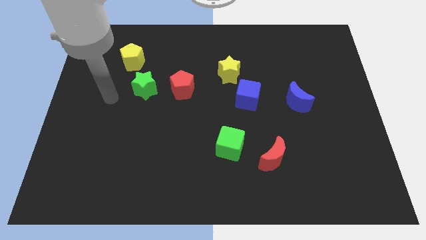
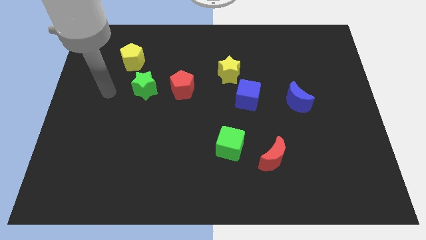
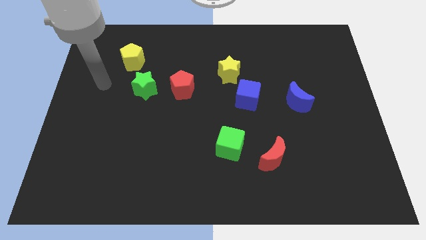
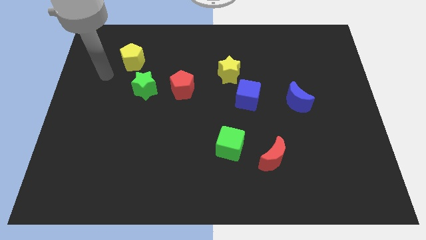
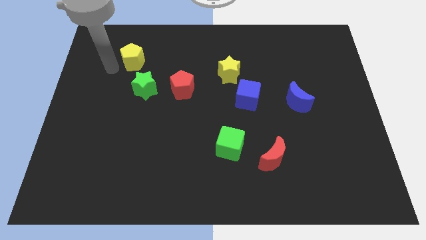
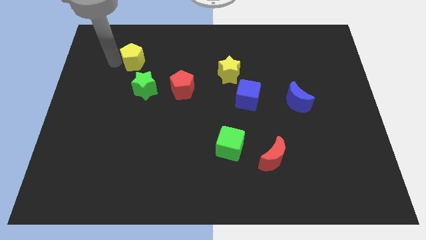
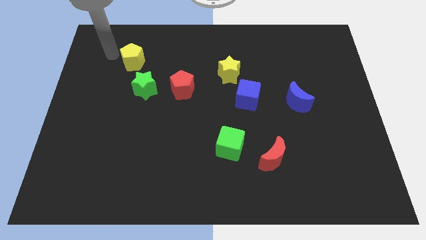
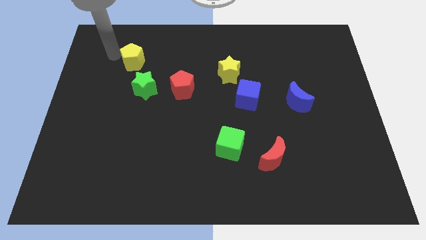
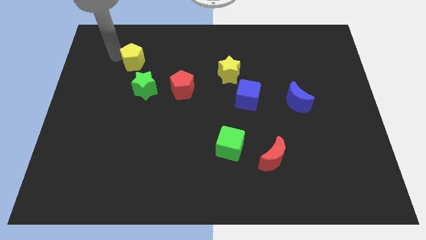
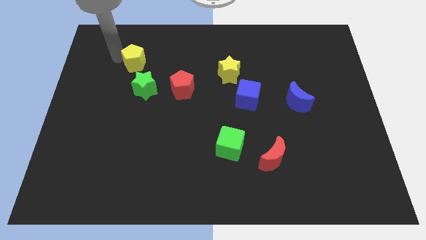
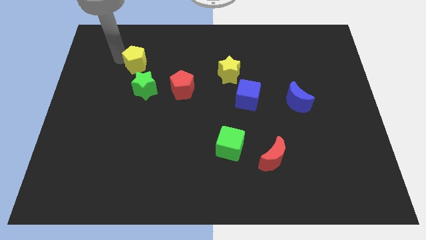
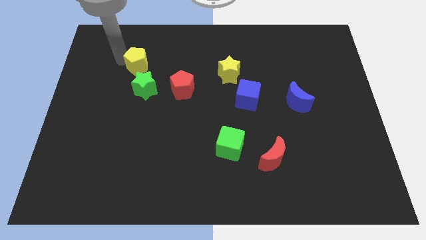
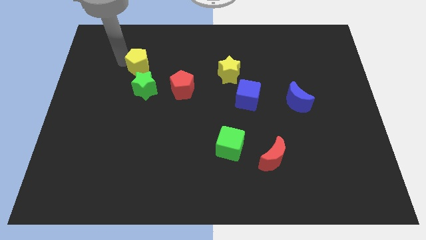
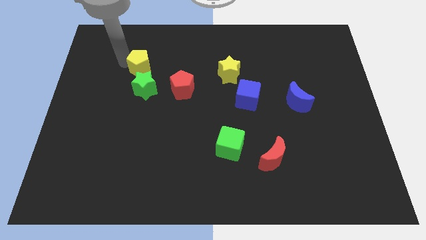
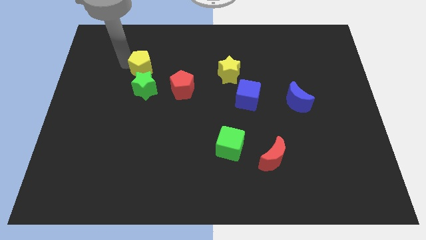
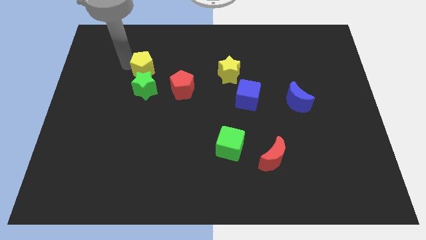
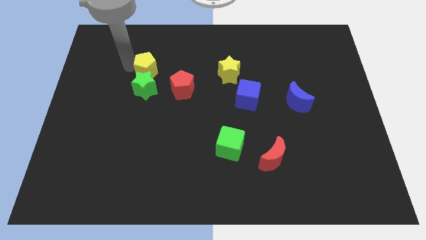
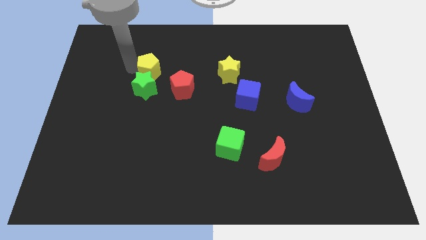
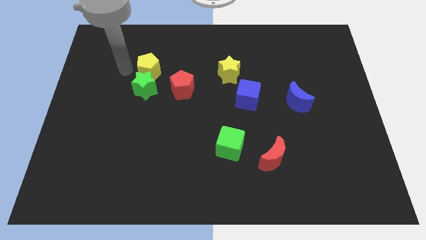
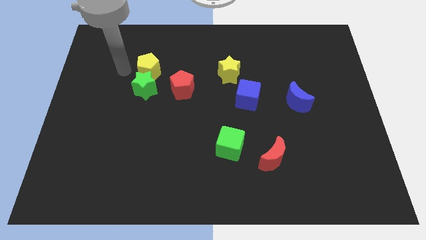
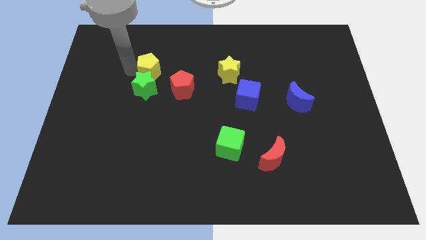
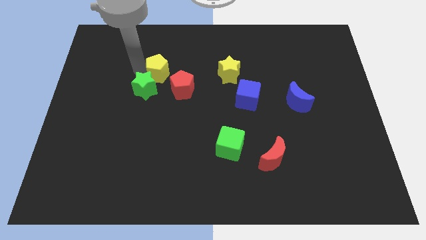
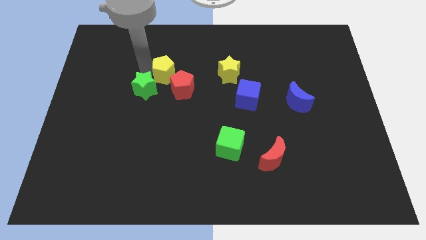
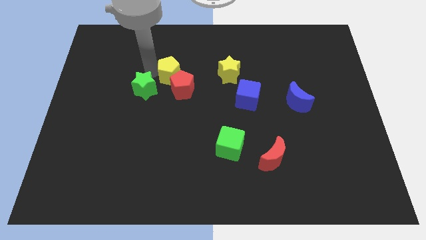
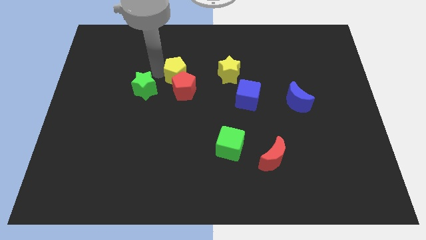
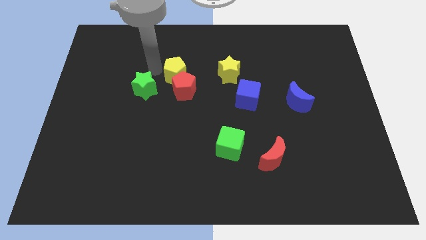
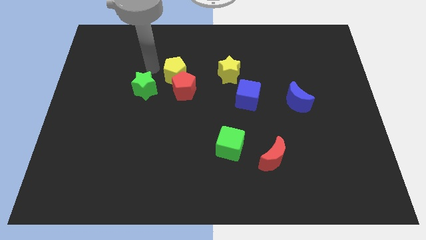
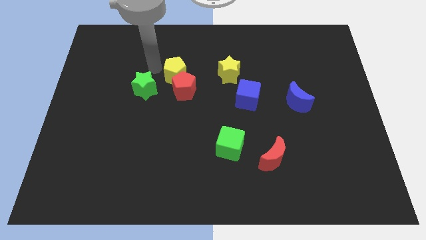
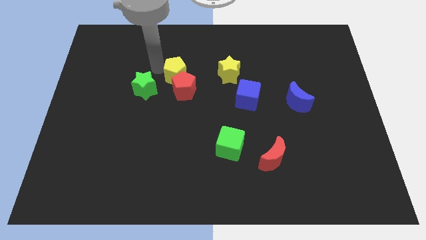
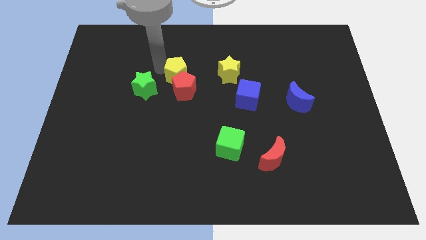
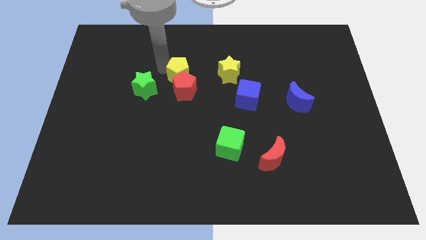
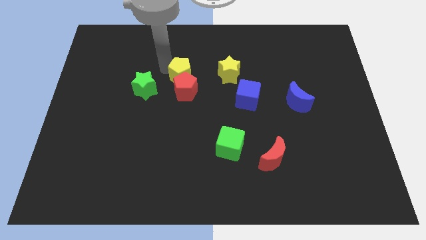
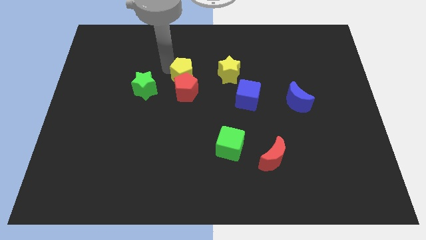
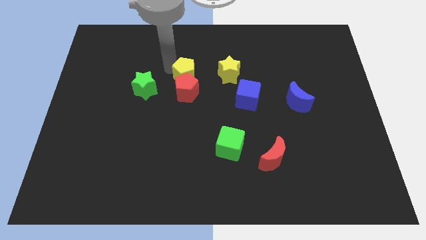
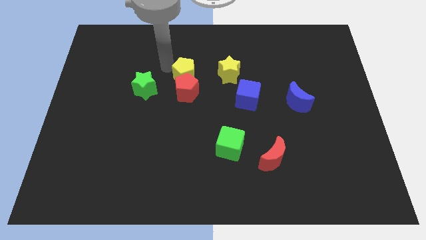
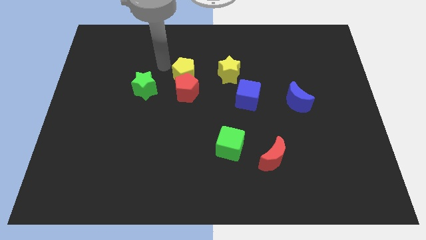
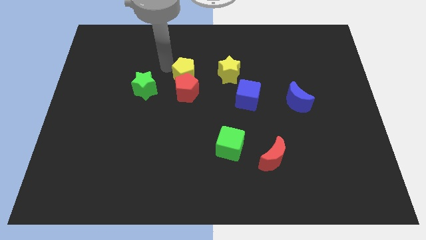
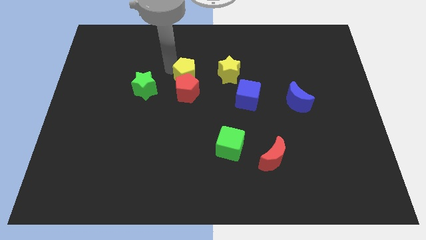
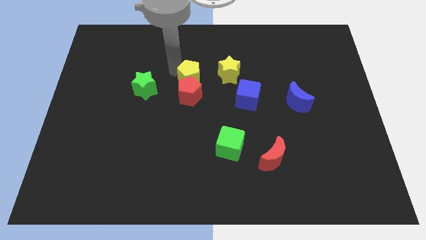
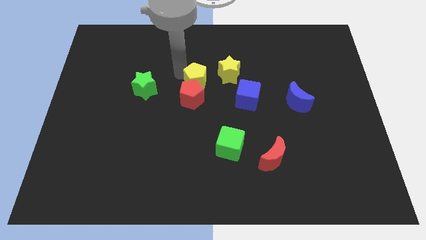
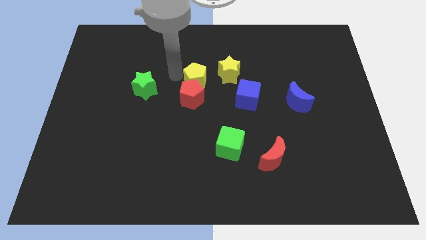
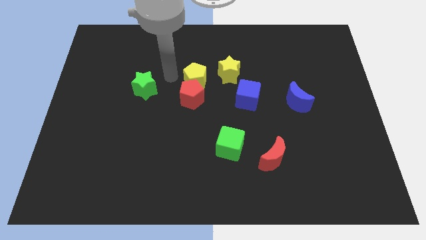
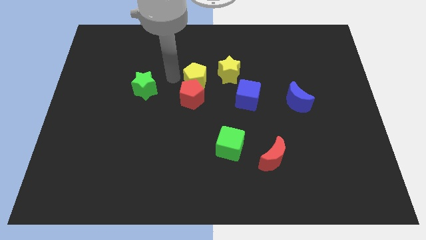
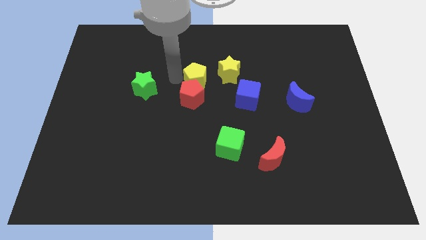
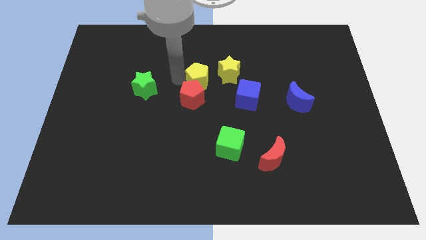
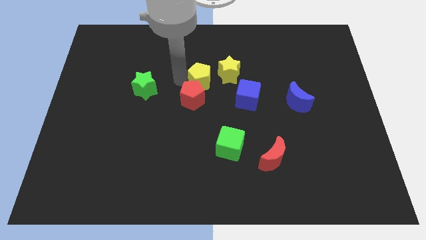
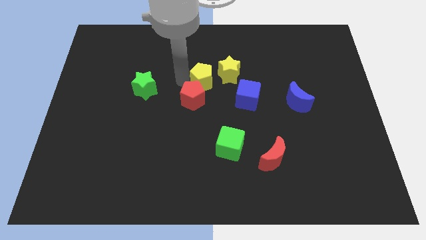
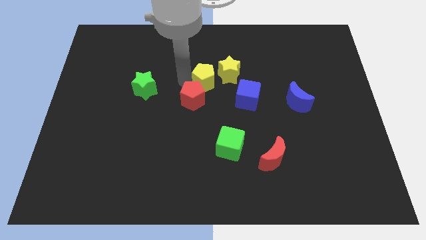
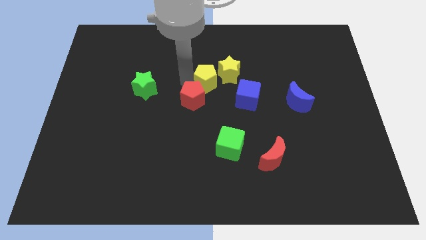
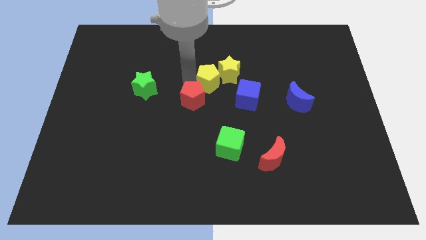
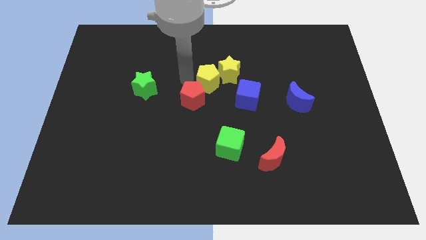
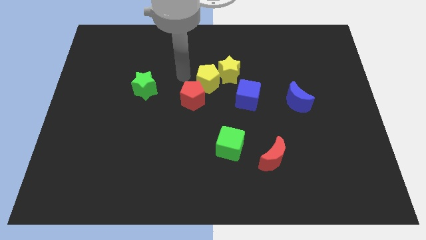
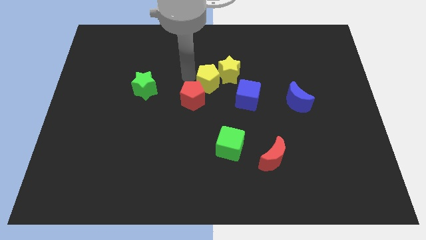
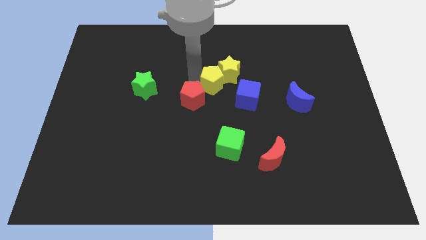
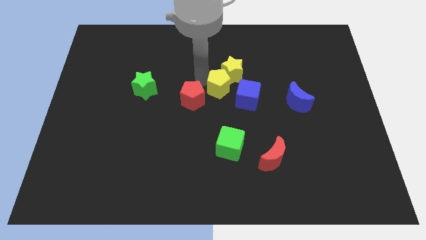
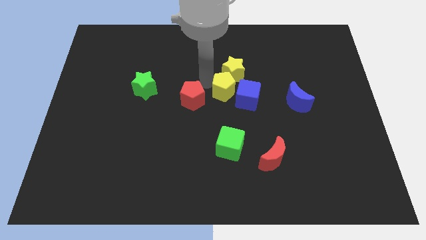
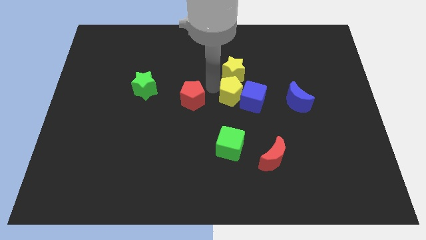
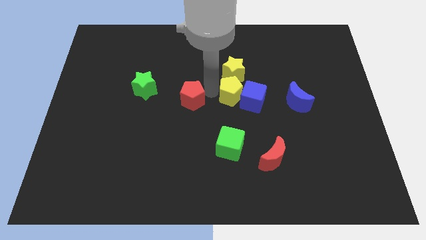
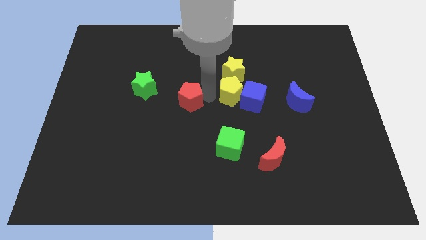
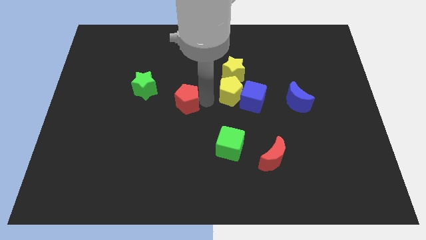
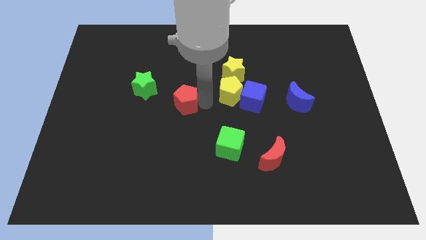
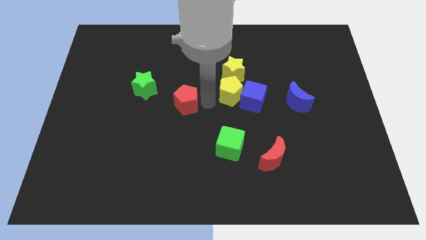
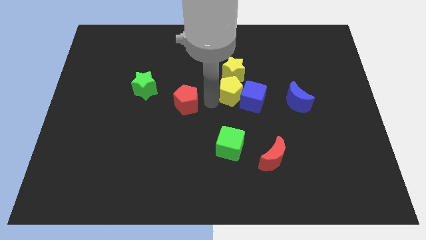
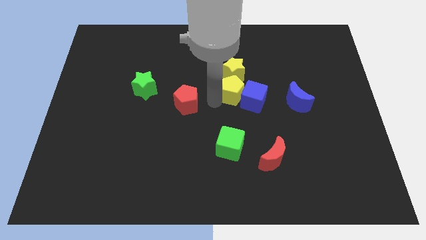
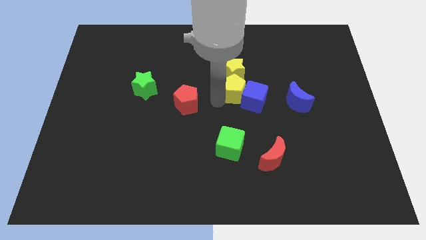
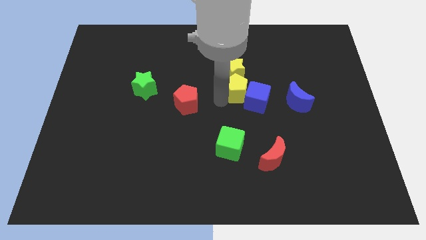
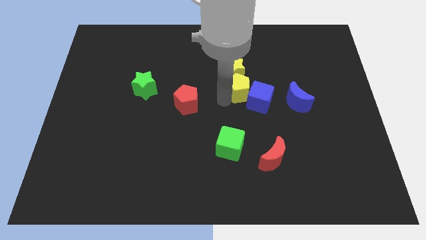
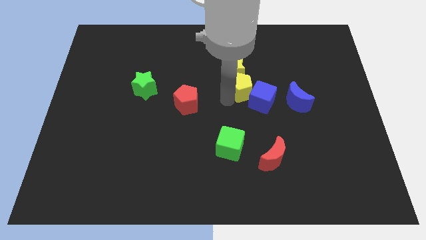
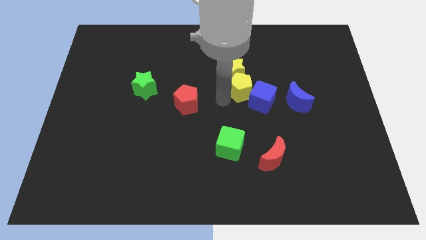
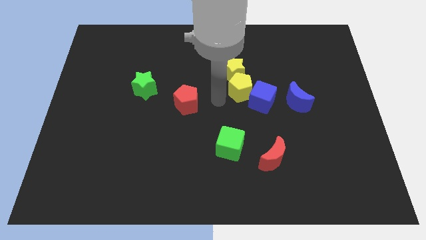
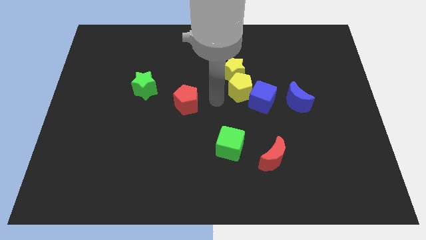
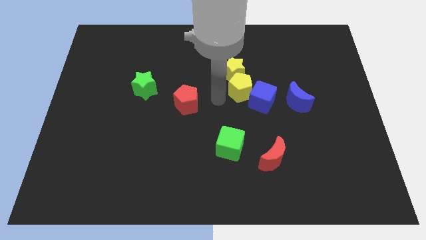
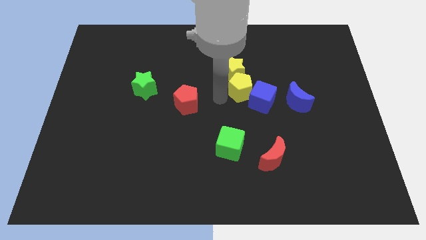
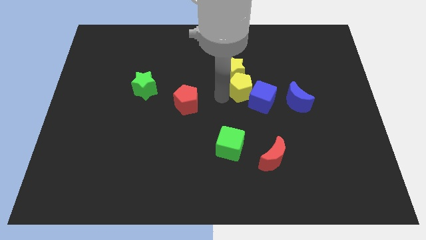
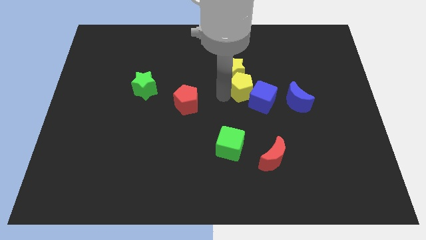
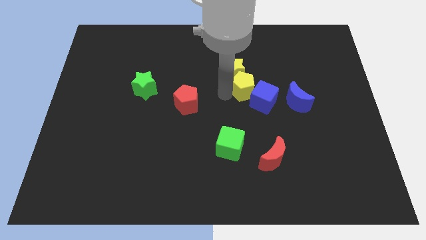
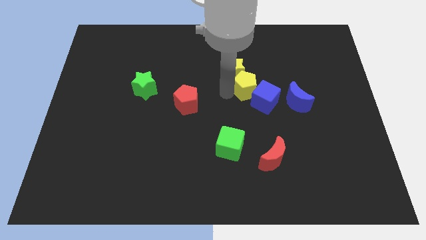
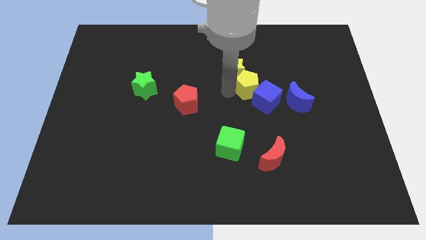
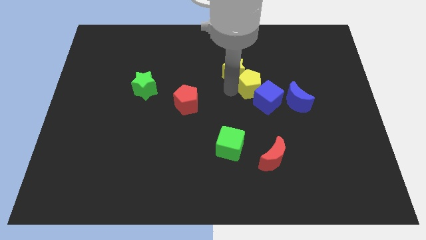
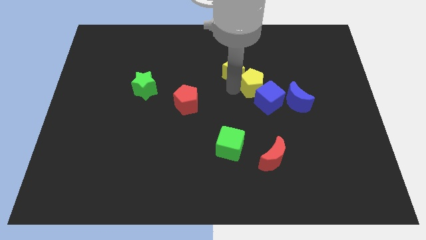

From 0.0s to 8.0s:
move the yellow pentagon diagonally up and to the left of the blue moon
